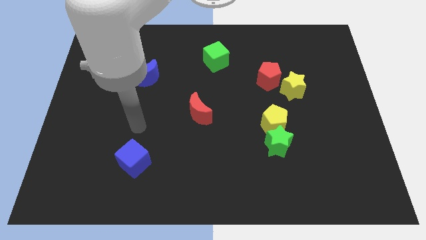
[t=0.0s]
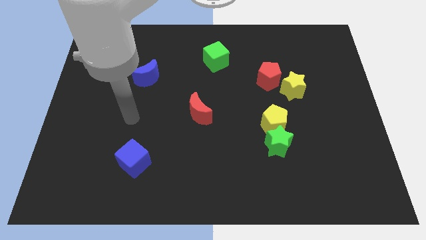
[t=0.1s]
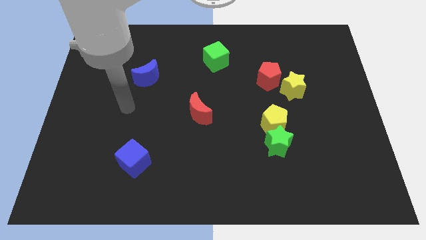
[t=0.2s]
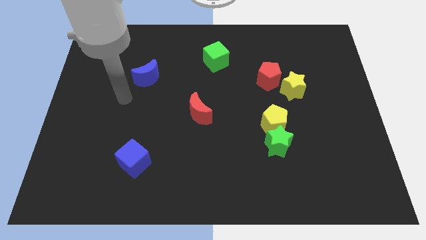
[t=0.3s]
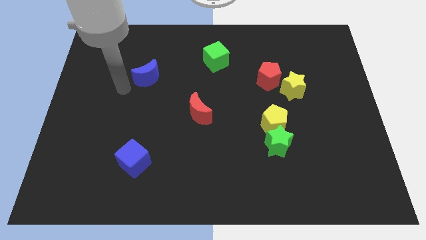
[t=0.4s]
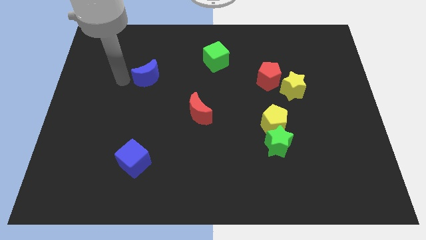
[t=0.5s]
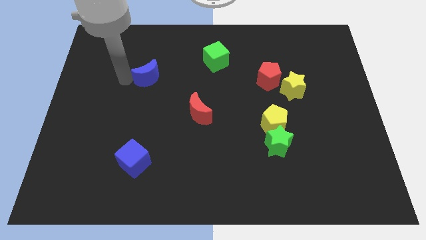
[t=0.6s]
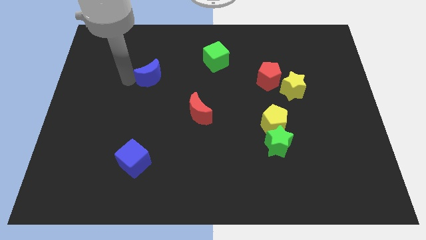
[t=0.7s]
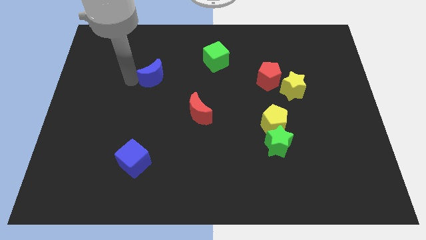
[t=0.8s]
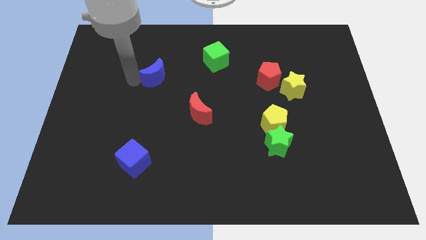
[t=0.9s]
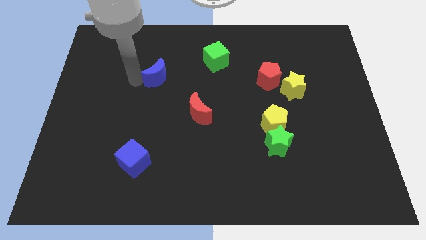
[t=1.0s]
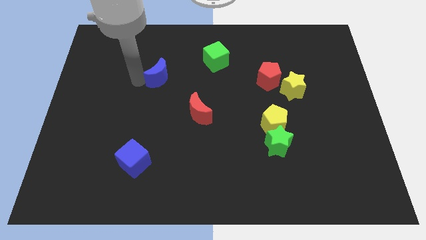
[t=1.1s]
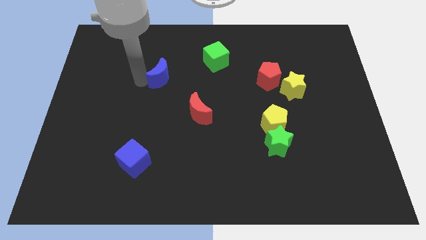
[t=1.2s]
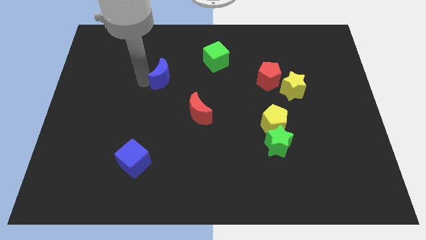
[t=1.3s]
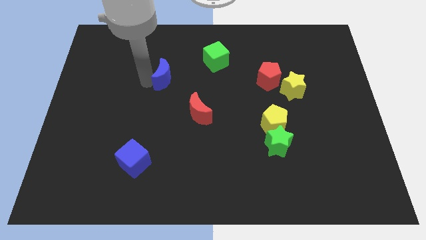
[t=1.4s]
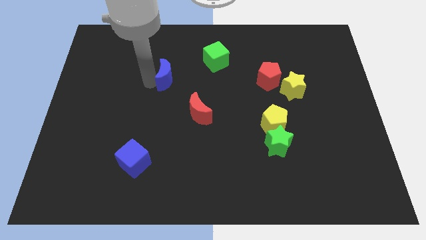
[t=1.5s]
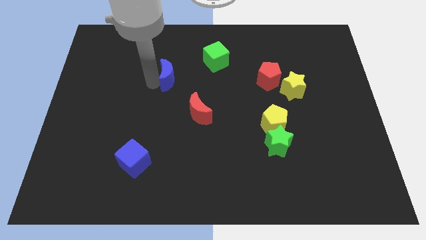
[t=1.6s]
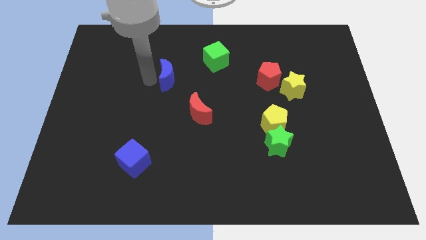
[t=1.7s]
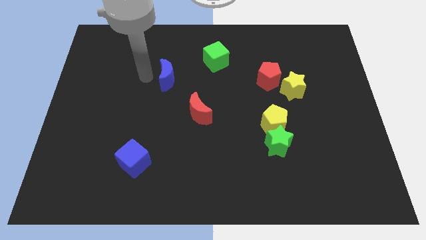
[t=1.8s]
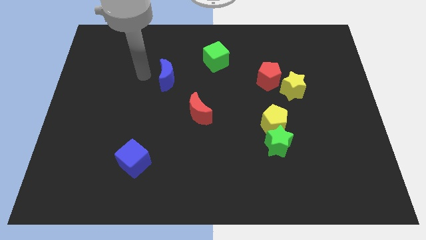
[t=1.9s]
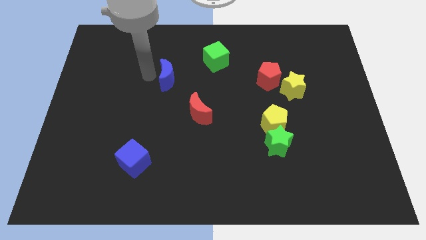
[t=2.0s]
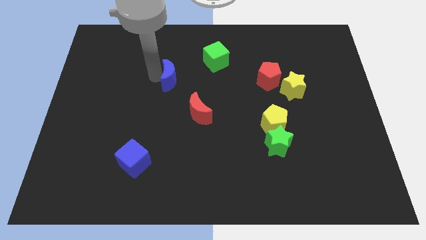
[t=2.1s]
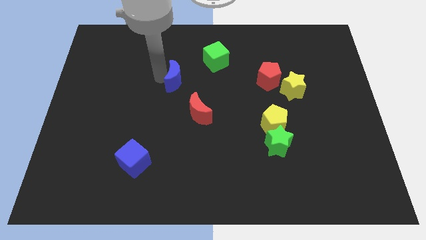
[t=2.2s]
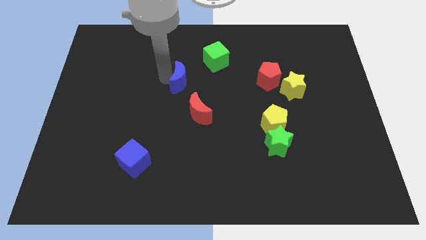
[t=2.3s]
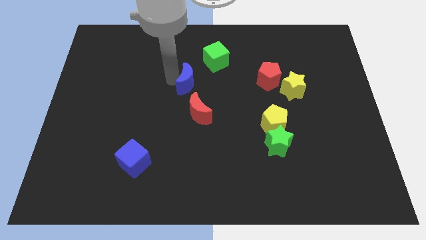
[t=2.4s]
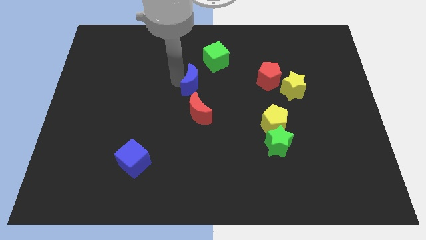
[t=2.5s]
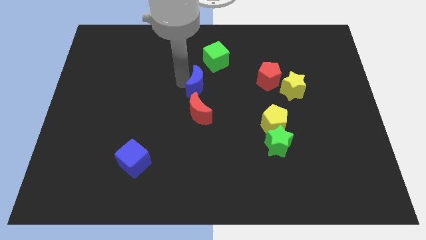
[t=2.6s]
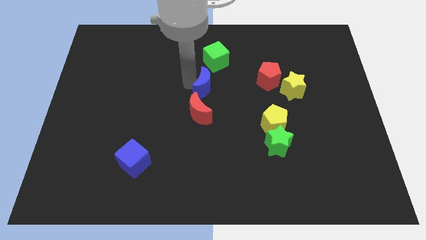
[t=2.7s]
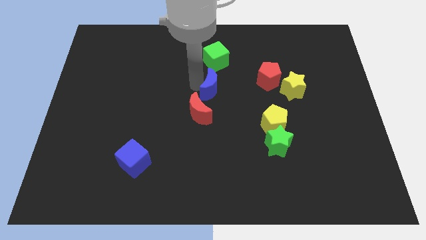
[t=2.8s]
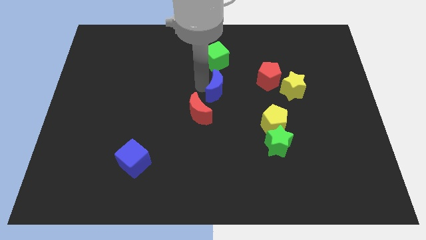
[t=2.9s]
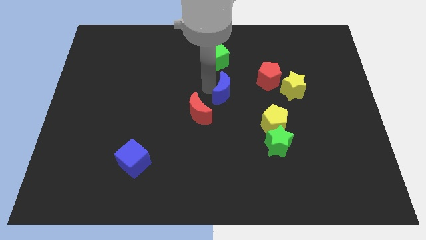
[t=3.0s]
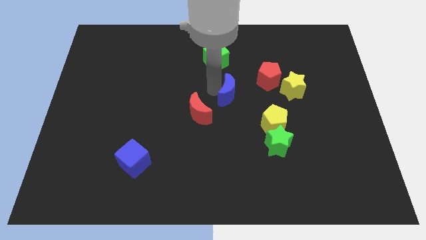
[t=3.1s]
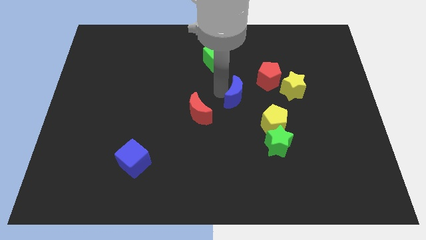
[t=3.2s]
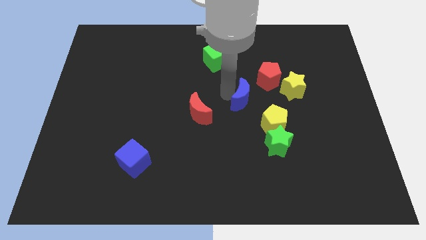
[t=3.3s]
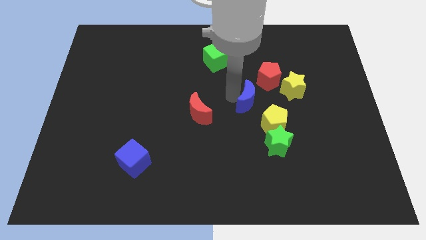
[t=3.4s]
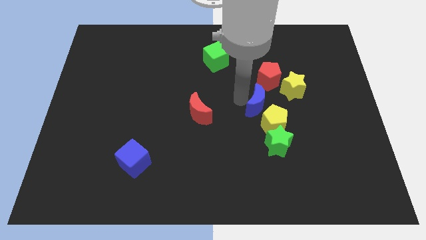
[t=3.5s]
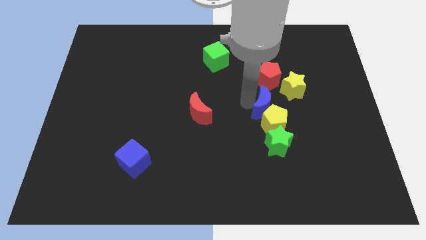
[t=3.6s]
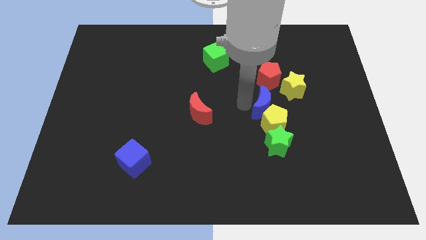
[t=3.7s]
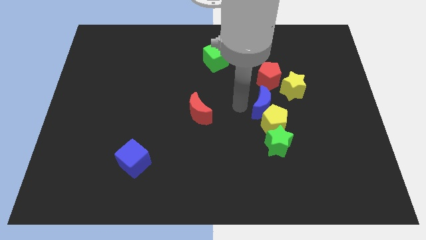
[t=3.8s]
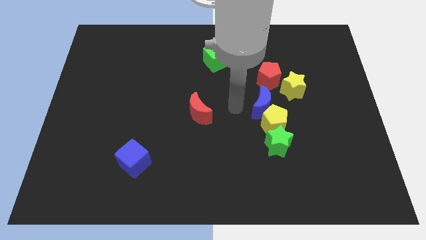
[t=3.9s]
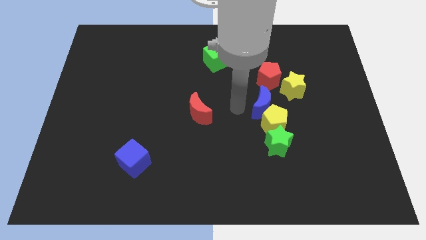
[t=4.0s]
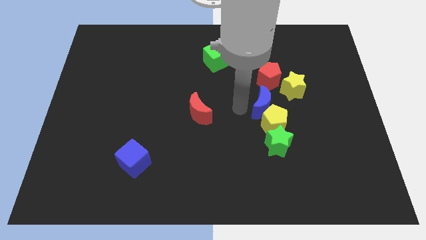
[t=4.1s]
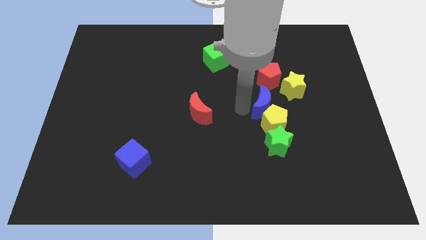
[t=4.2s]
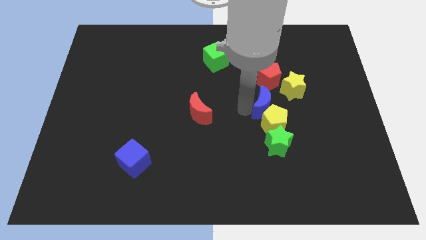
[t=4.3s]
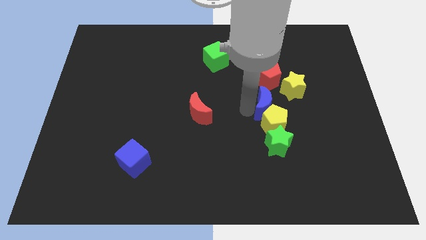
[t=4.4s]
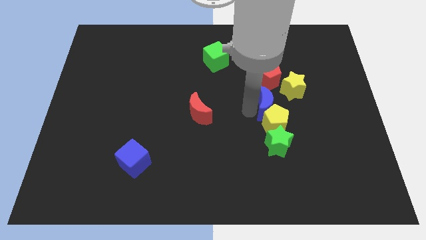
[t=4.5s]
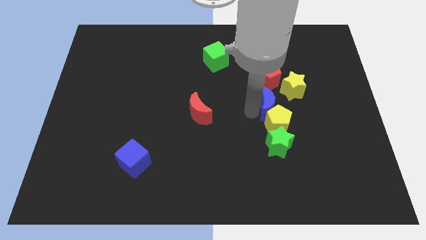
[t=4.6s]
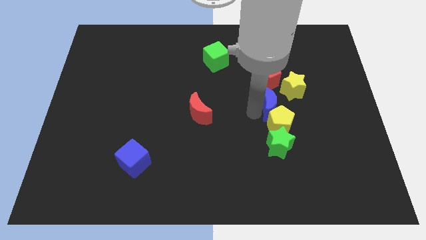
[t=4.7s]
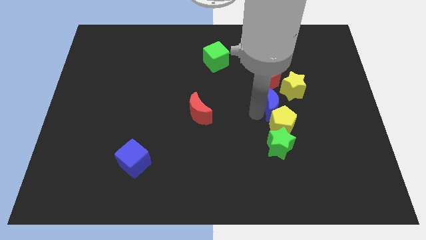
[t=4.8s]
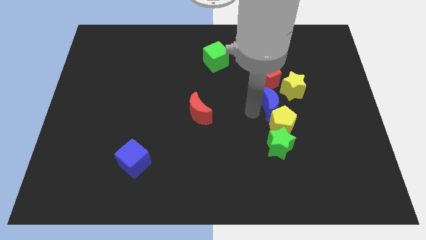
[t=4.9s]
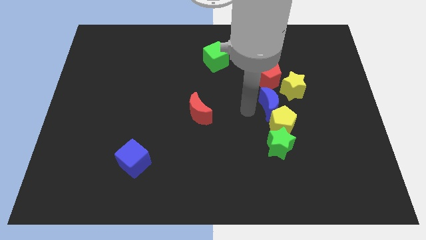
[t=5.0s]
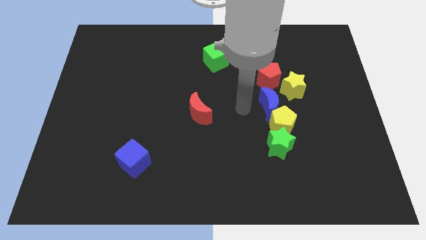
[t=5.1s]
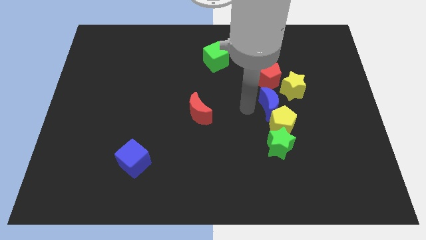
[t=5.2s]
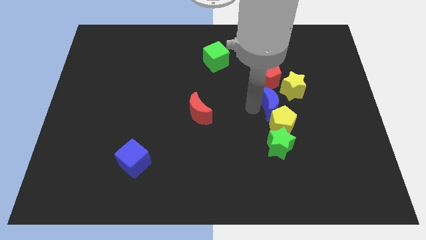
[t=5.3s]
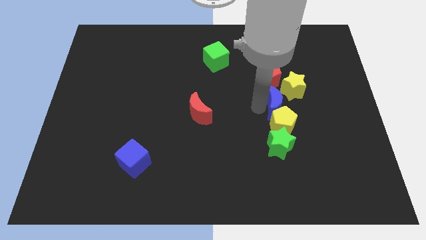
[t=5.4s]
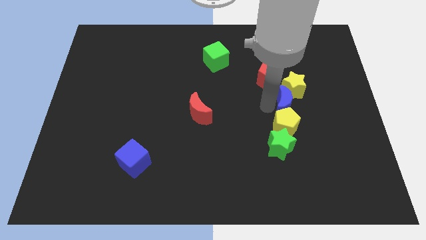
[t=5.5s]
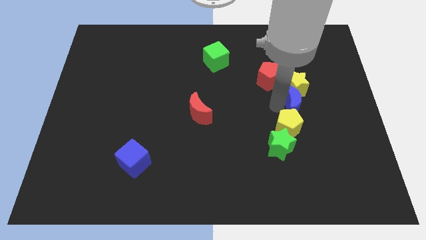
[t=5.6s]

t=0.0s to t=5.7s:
slide the blue moon to the bottom right side of the yellow star

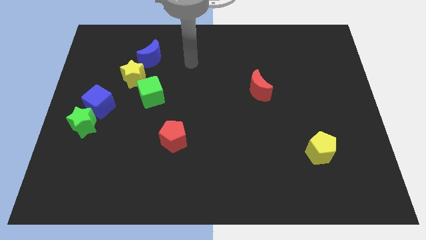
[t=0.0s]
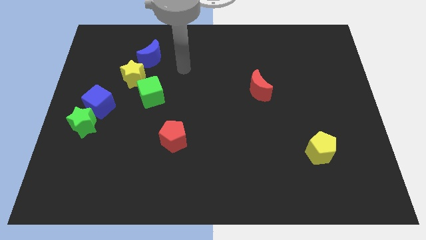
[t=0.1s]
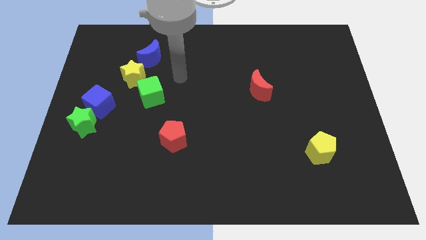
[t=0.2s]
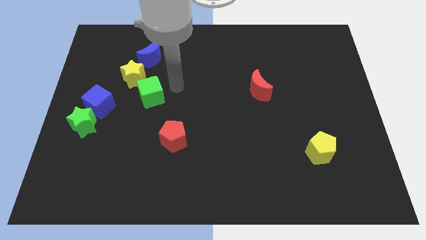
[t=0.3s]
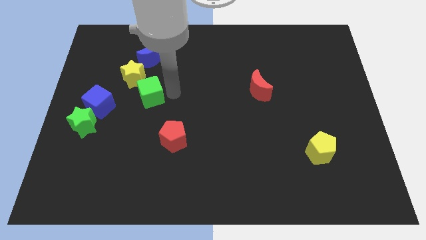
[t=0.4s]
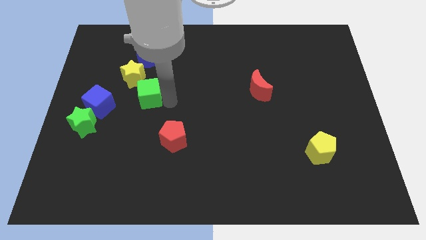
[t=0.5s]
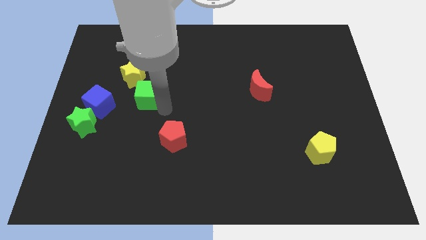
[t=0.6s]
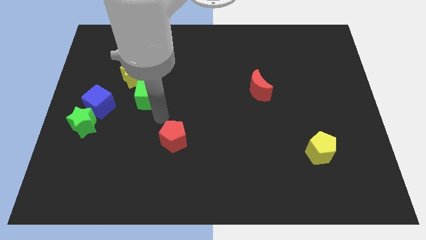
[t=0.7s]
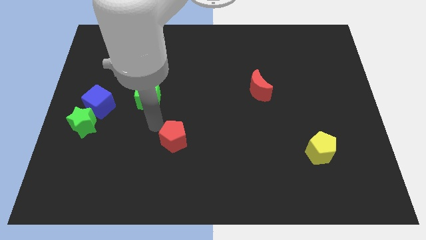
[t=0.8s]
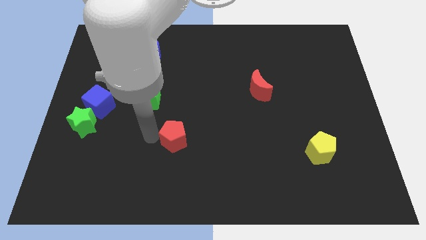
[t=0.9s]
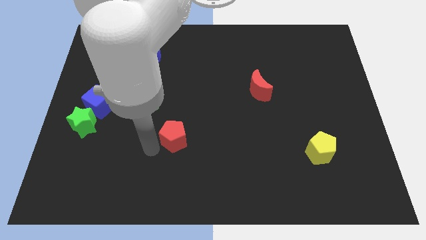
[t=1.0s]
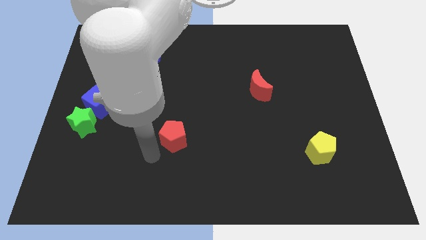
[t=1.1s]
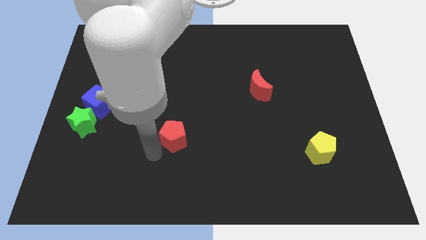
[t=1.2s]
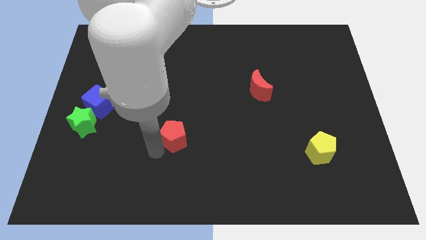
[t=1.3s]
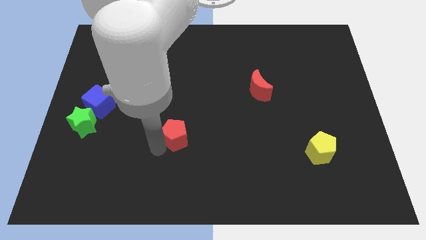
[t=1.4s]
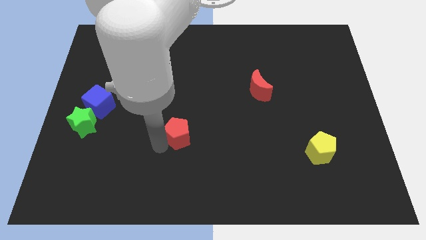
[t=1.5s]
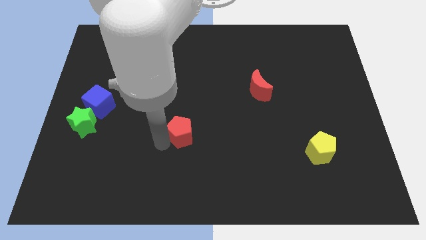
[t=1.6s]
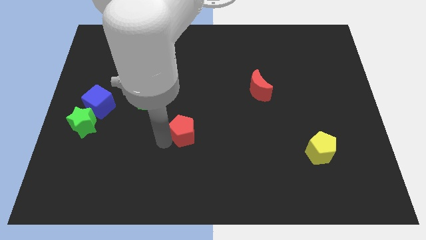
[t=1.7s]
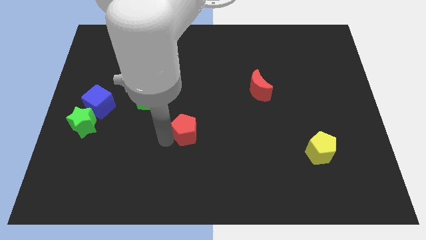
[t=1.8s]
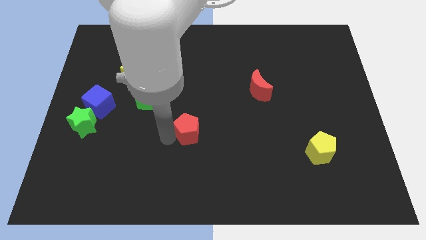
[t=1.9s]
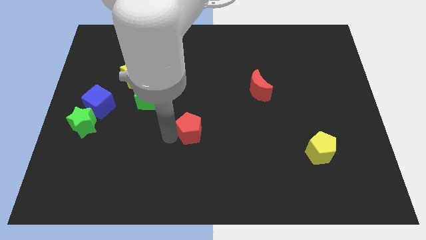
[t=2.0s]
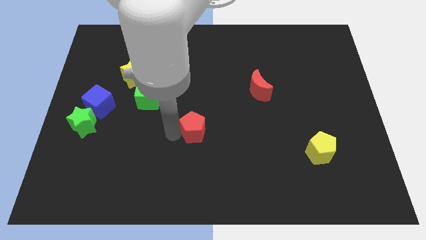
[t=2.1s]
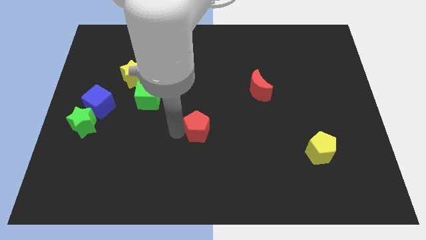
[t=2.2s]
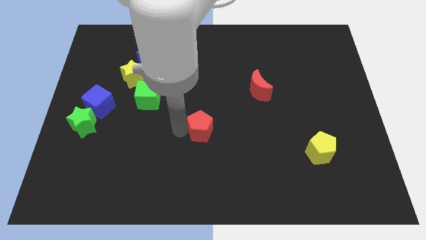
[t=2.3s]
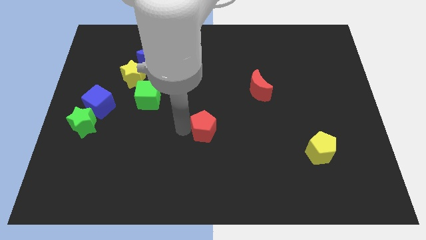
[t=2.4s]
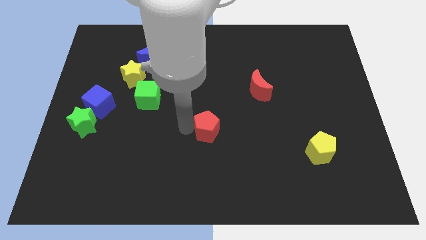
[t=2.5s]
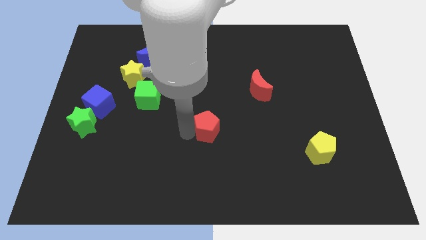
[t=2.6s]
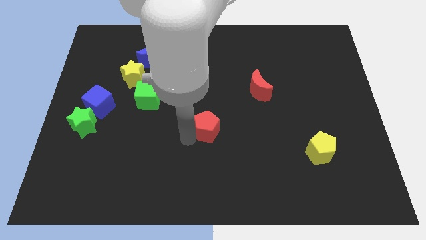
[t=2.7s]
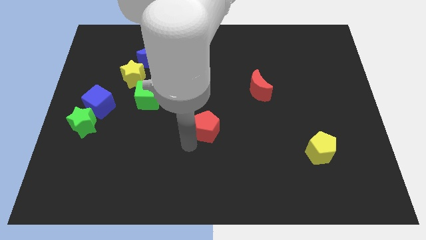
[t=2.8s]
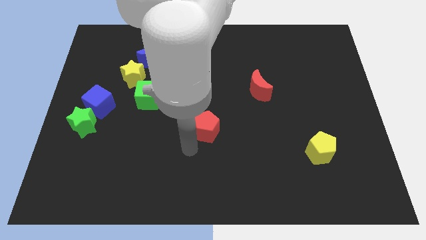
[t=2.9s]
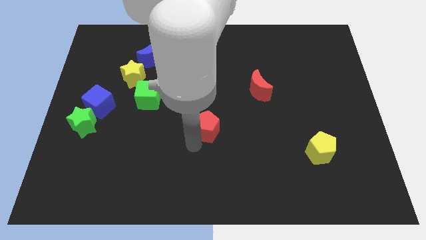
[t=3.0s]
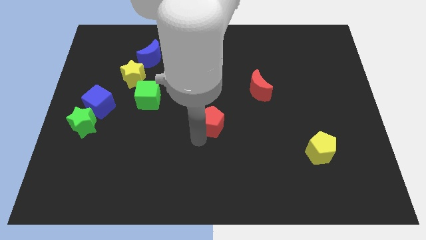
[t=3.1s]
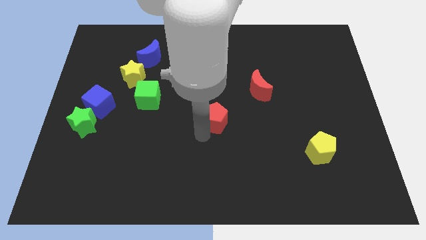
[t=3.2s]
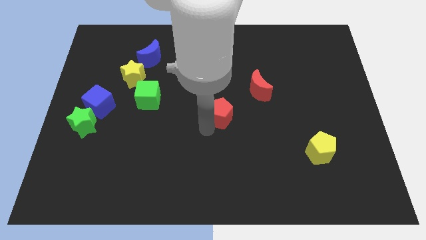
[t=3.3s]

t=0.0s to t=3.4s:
put the red pentagon to the bottom left side of the red moon
